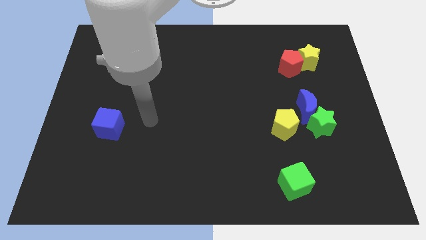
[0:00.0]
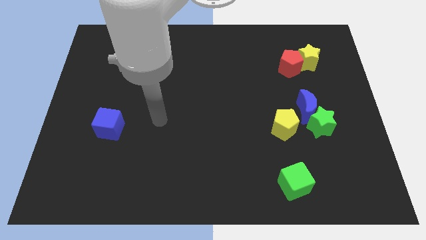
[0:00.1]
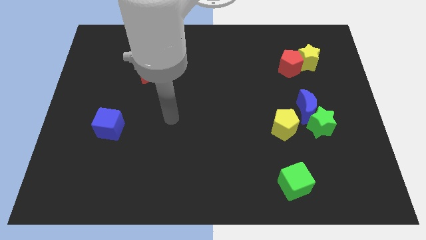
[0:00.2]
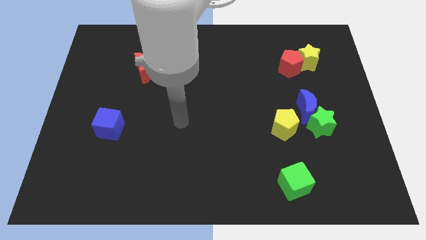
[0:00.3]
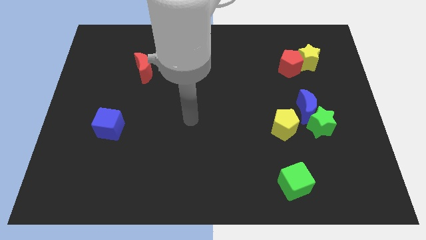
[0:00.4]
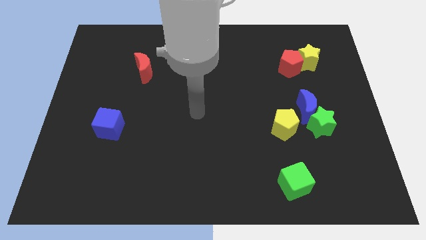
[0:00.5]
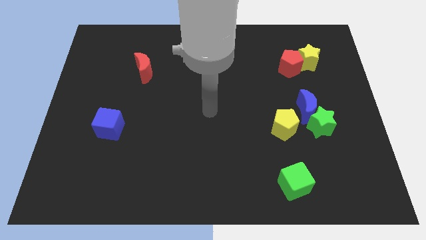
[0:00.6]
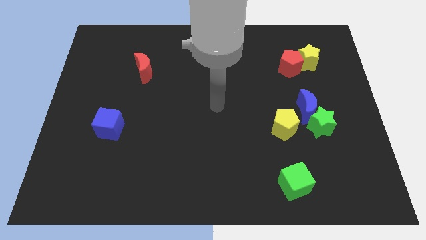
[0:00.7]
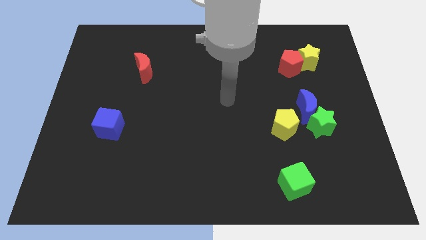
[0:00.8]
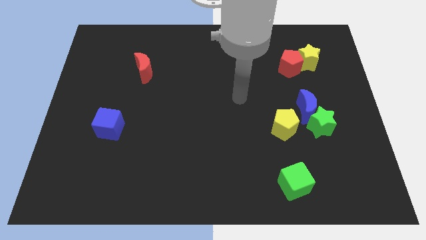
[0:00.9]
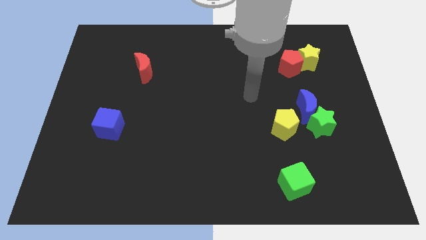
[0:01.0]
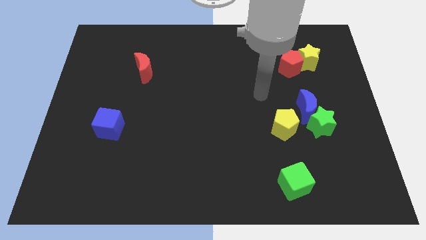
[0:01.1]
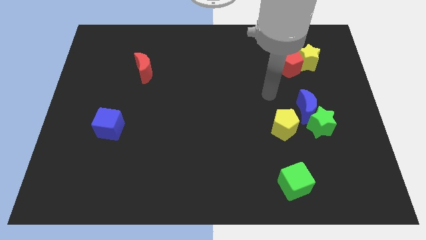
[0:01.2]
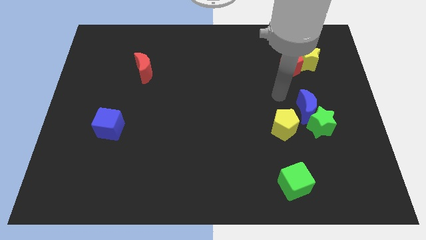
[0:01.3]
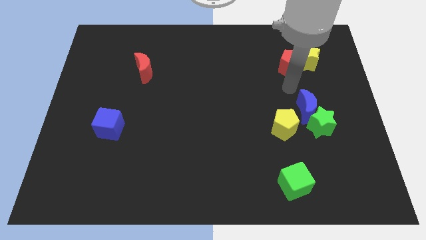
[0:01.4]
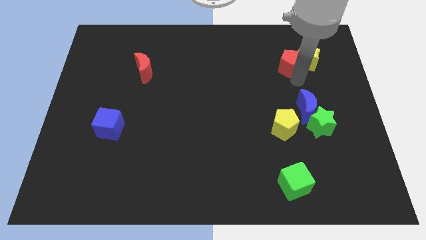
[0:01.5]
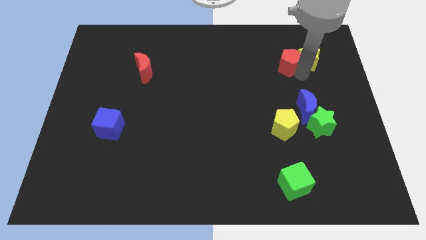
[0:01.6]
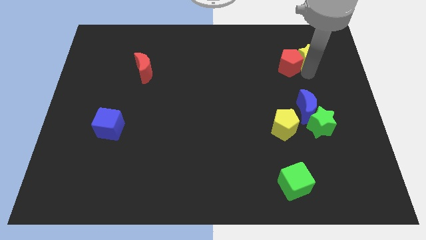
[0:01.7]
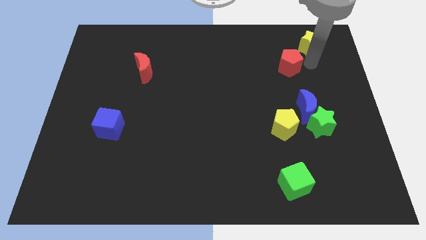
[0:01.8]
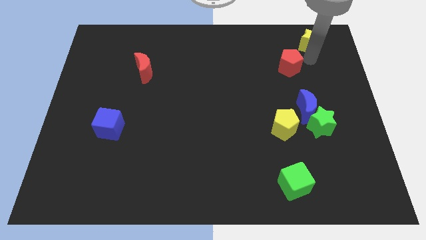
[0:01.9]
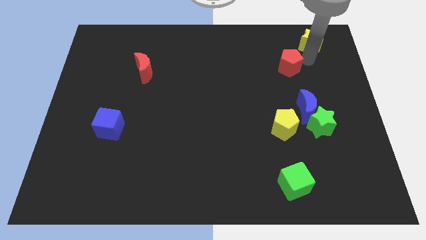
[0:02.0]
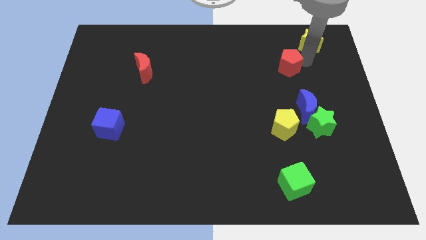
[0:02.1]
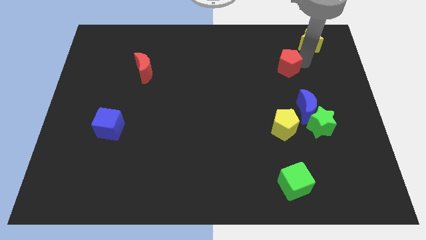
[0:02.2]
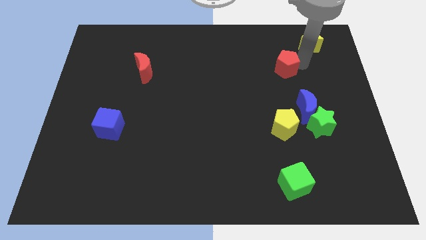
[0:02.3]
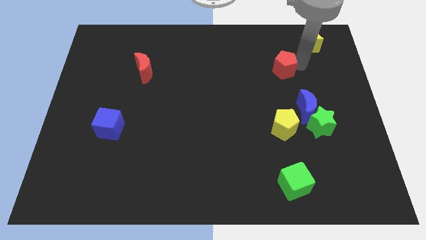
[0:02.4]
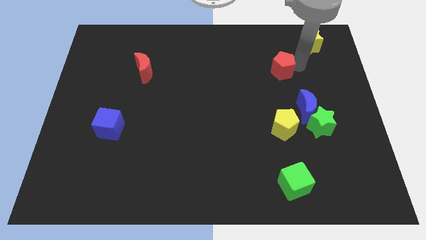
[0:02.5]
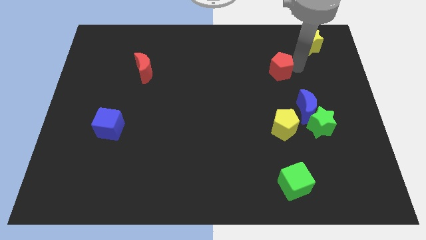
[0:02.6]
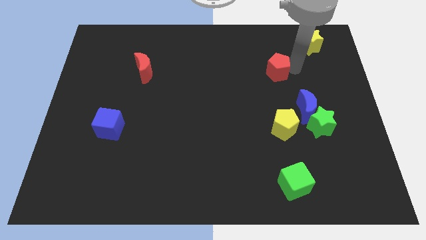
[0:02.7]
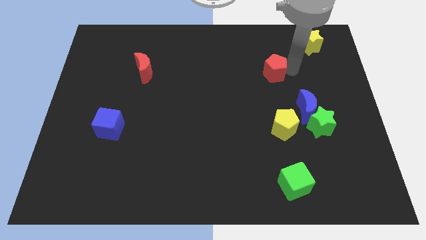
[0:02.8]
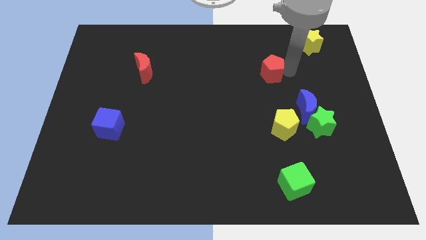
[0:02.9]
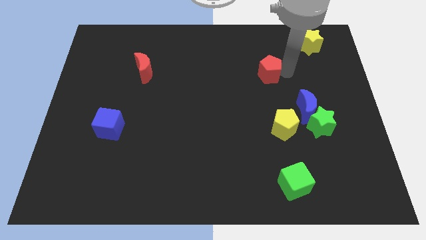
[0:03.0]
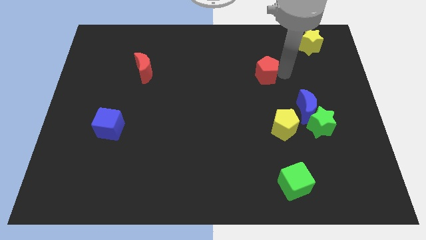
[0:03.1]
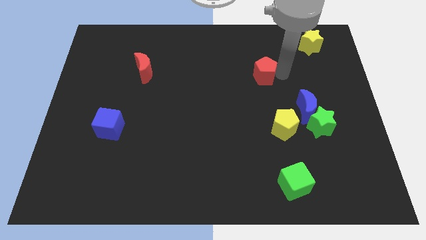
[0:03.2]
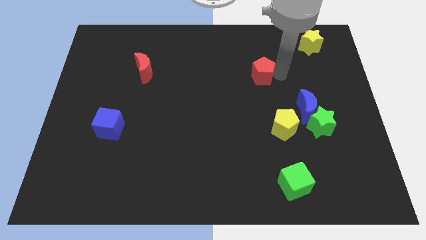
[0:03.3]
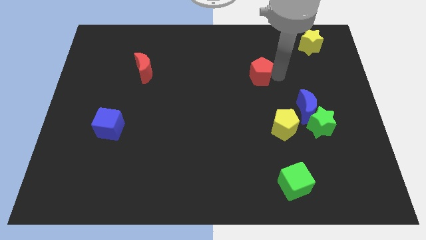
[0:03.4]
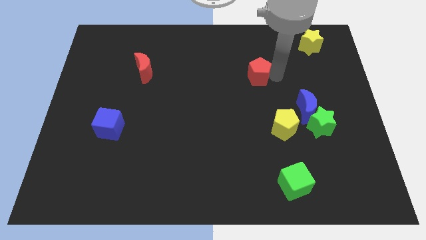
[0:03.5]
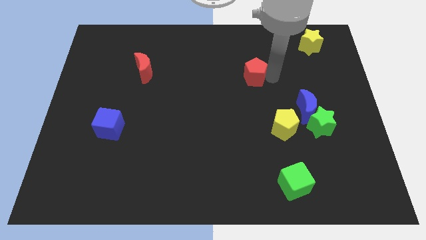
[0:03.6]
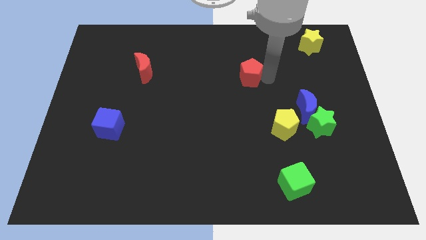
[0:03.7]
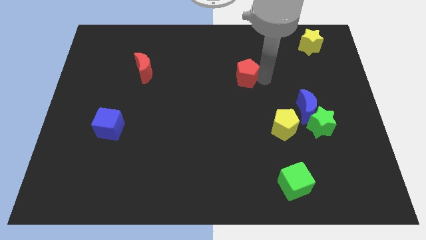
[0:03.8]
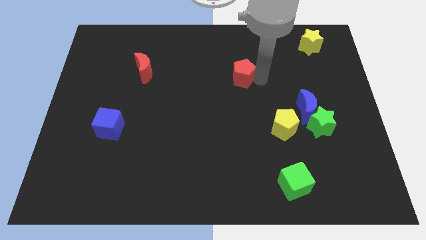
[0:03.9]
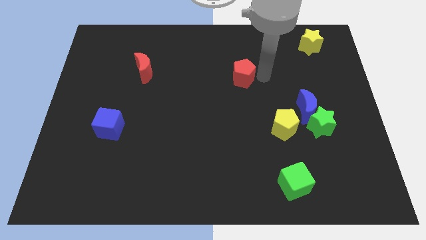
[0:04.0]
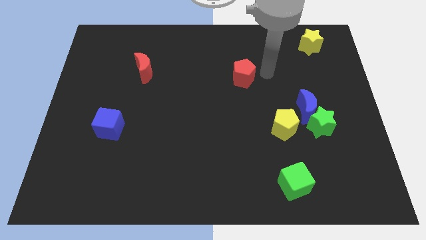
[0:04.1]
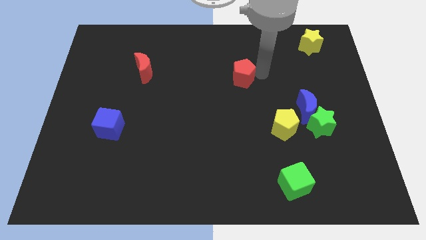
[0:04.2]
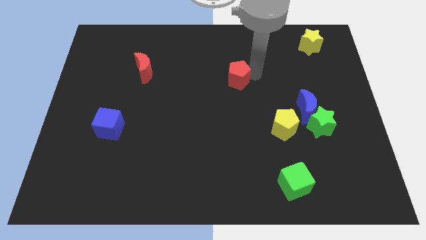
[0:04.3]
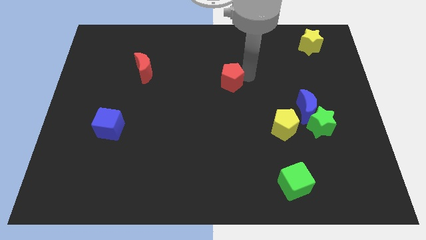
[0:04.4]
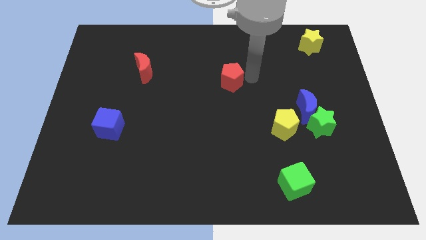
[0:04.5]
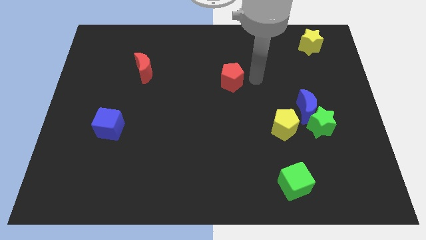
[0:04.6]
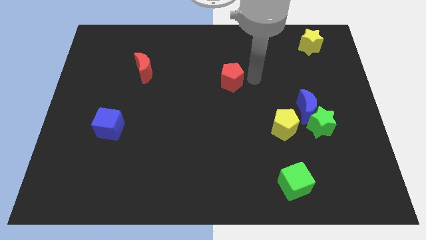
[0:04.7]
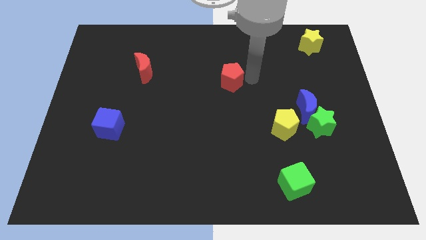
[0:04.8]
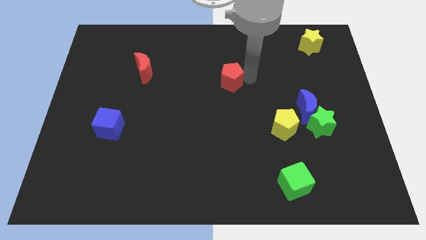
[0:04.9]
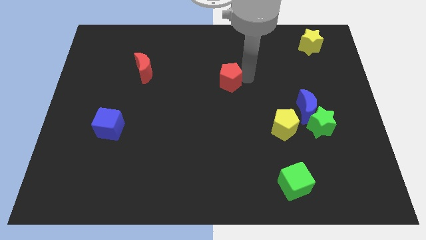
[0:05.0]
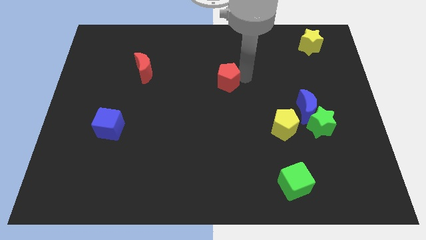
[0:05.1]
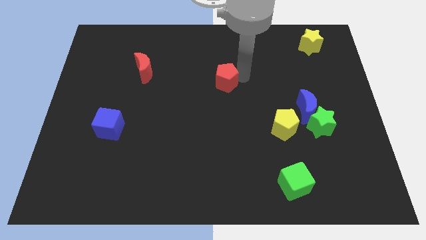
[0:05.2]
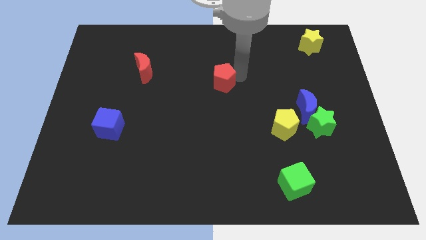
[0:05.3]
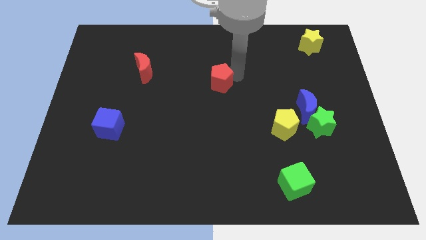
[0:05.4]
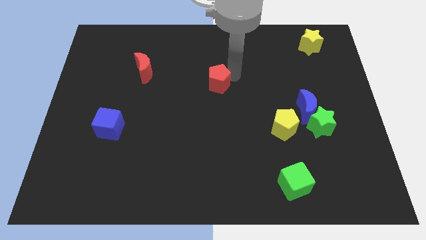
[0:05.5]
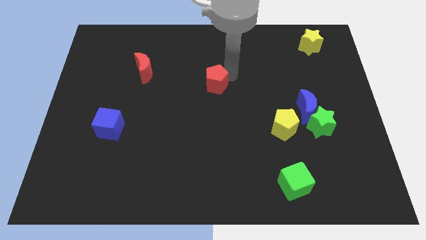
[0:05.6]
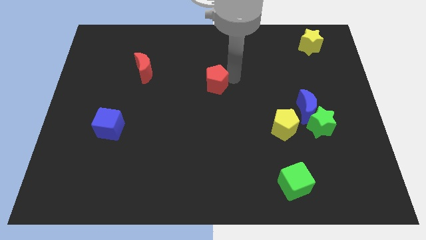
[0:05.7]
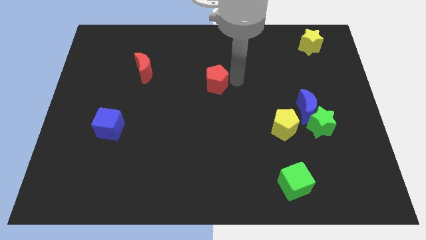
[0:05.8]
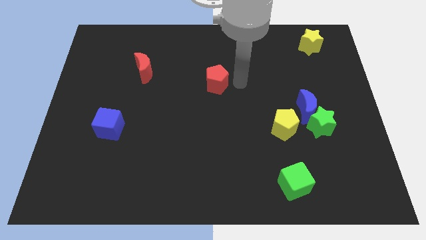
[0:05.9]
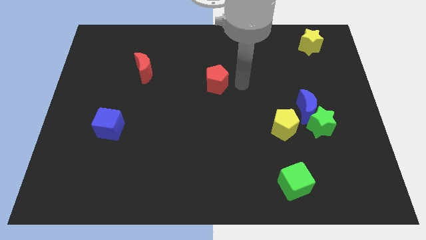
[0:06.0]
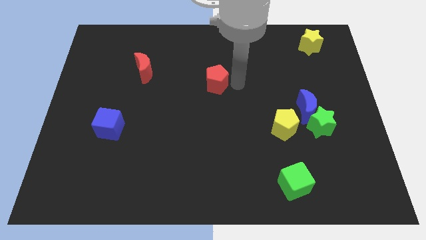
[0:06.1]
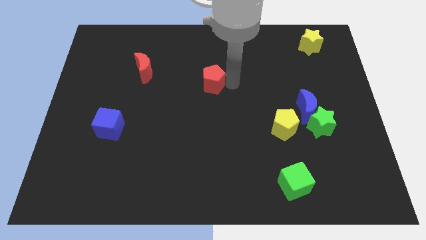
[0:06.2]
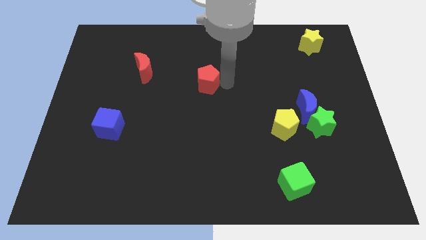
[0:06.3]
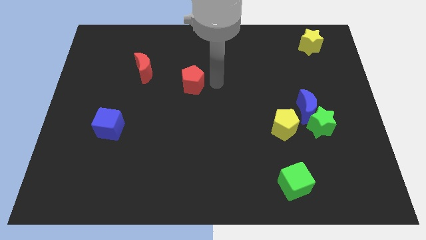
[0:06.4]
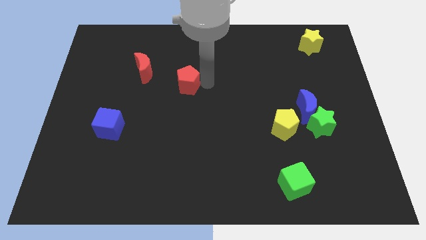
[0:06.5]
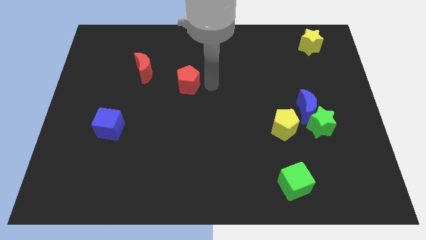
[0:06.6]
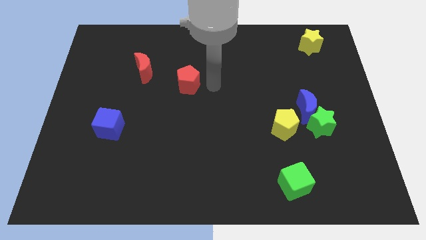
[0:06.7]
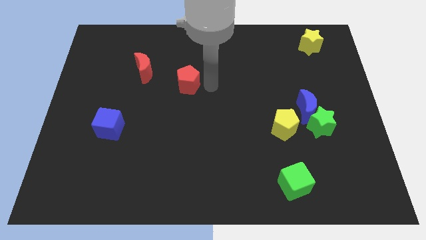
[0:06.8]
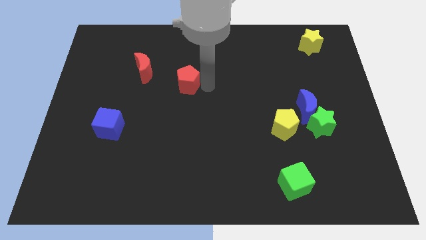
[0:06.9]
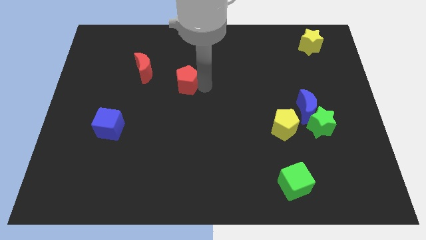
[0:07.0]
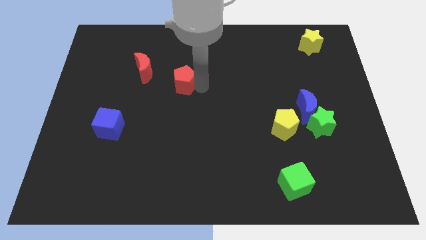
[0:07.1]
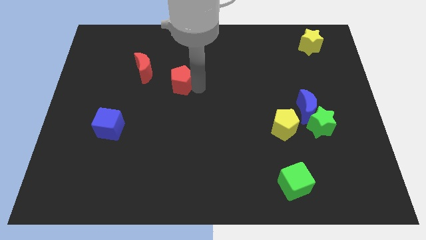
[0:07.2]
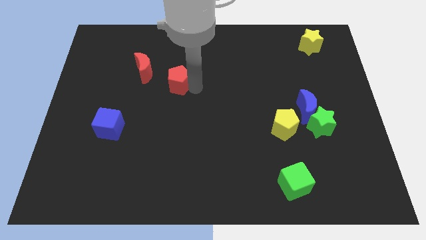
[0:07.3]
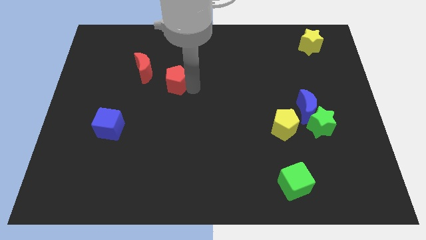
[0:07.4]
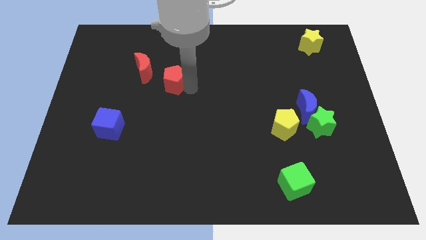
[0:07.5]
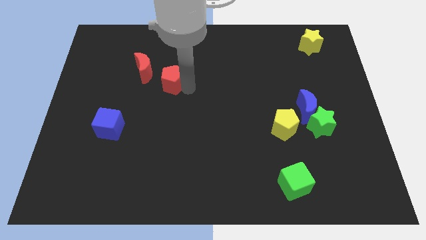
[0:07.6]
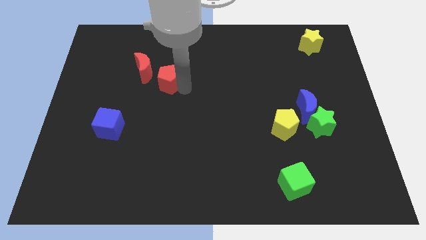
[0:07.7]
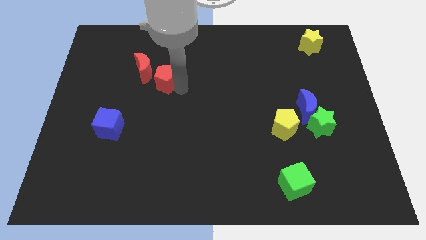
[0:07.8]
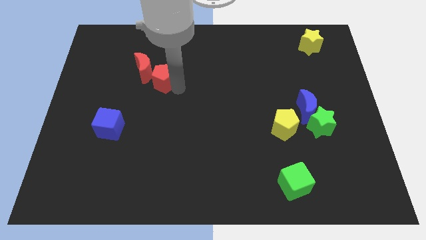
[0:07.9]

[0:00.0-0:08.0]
push the red pentagon to the red moon
